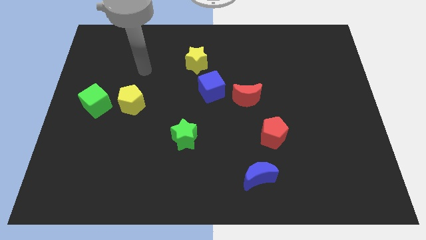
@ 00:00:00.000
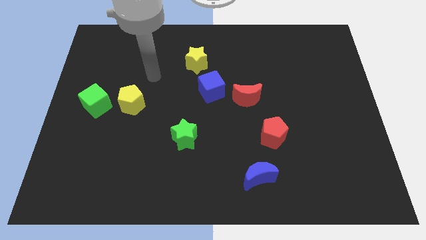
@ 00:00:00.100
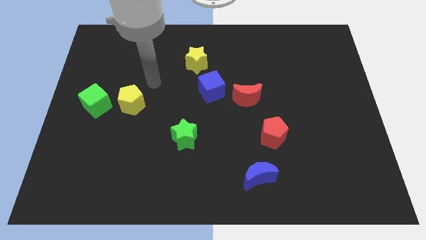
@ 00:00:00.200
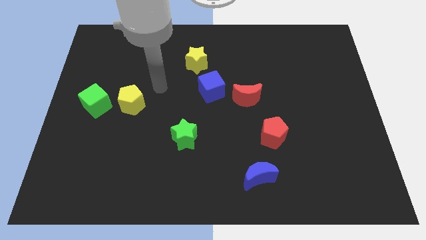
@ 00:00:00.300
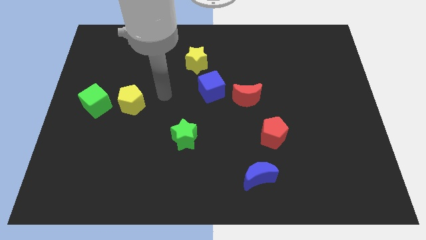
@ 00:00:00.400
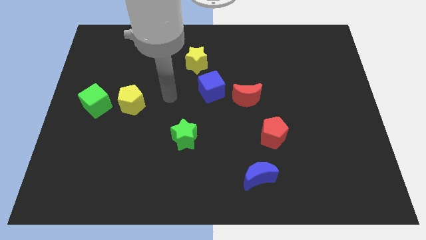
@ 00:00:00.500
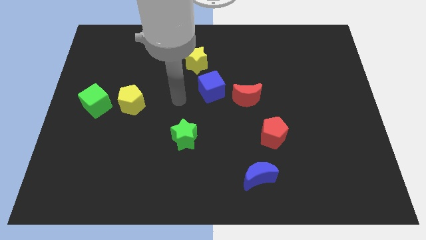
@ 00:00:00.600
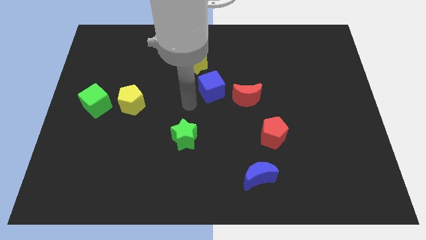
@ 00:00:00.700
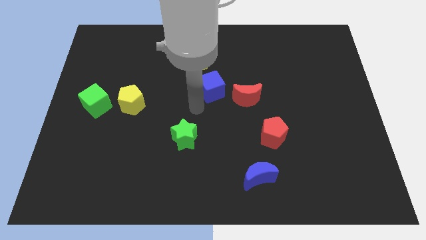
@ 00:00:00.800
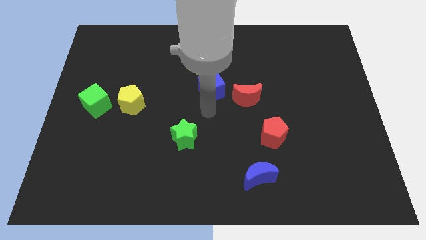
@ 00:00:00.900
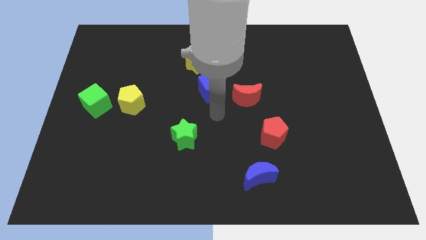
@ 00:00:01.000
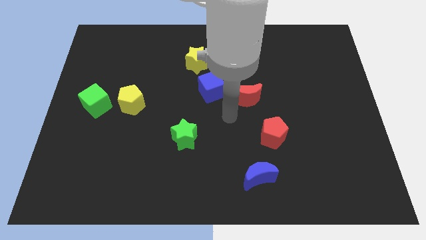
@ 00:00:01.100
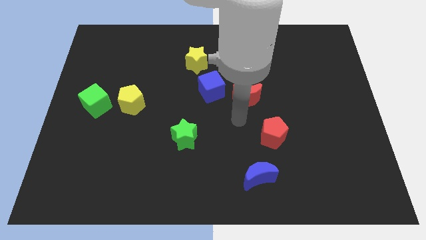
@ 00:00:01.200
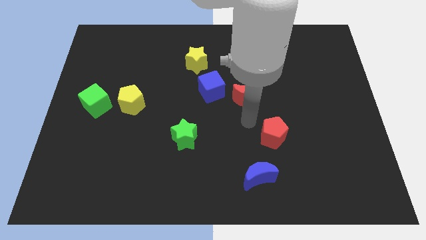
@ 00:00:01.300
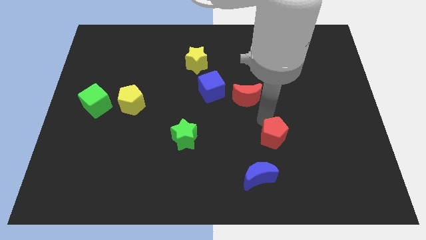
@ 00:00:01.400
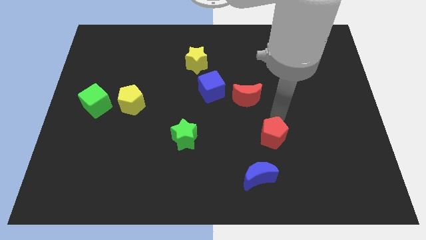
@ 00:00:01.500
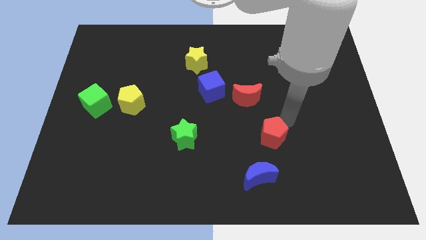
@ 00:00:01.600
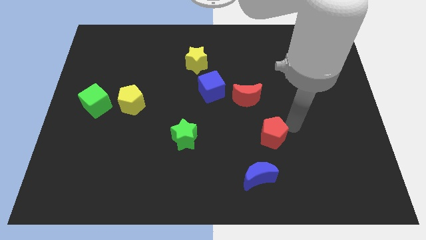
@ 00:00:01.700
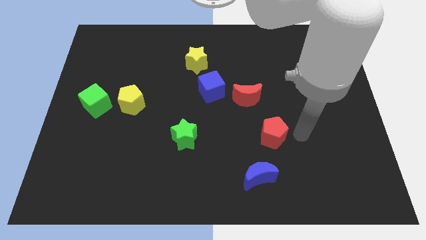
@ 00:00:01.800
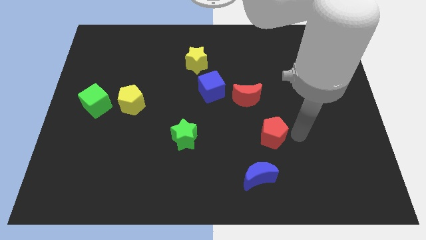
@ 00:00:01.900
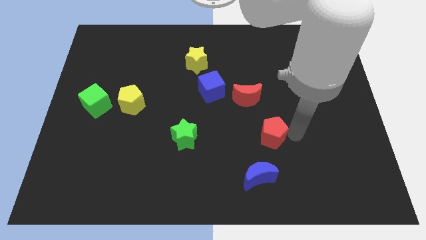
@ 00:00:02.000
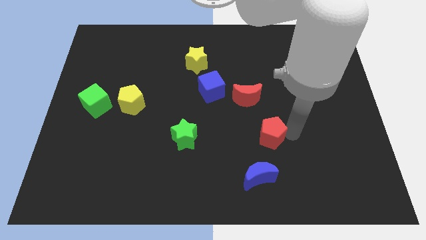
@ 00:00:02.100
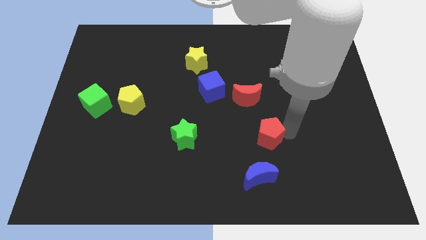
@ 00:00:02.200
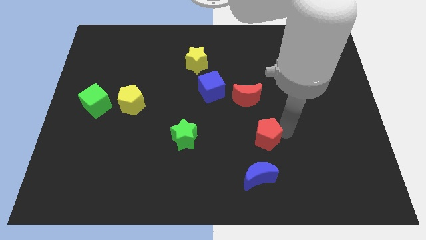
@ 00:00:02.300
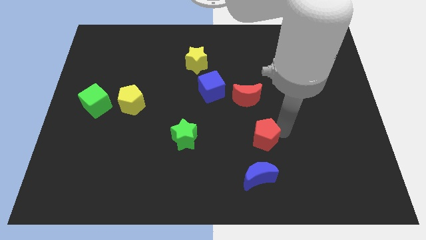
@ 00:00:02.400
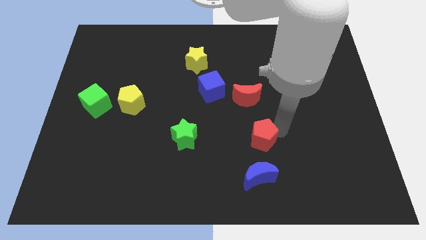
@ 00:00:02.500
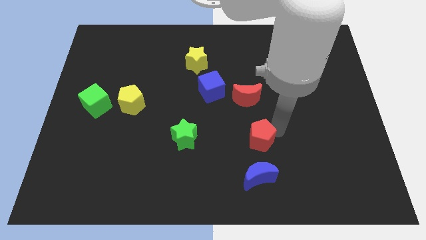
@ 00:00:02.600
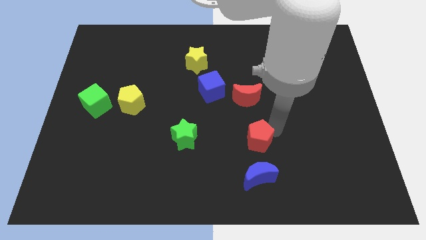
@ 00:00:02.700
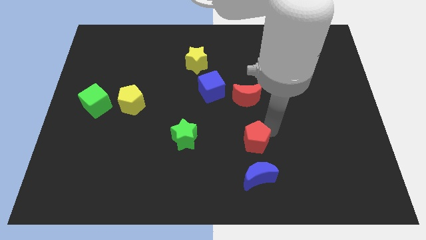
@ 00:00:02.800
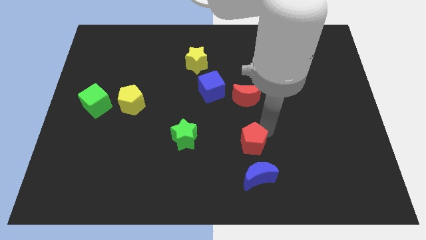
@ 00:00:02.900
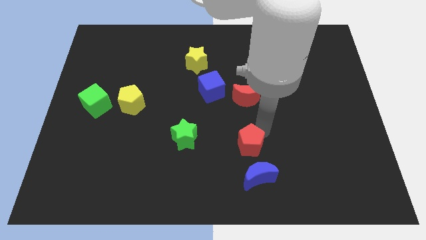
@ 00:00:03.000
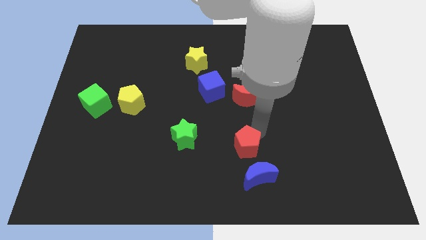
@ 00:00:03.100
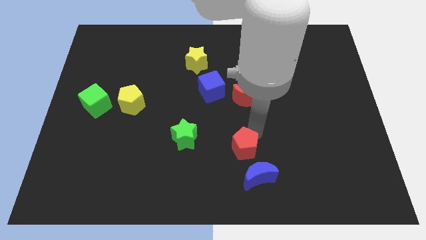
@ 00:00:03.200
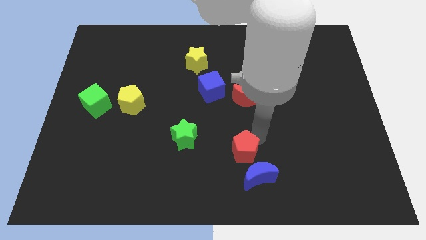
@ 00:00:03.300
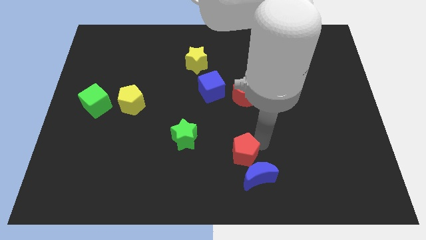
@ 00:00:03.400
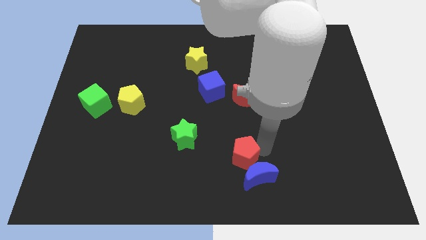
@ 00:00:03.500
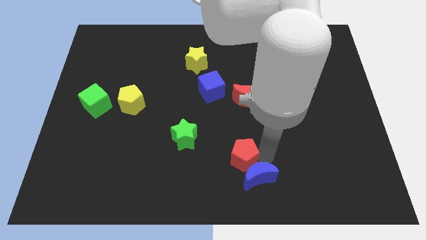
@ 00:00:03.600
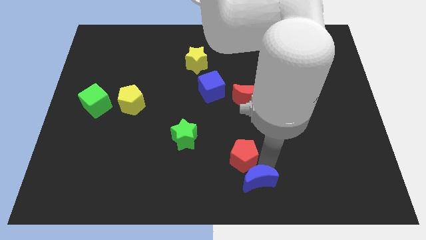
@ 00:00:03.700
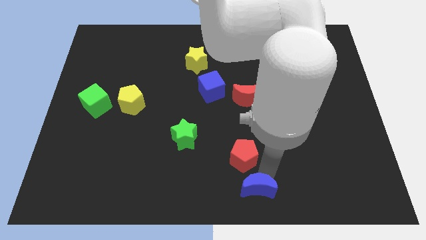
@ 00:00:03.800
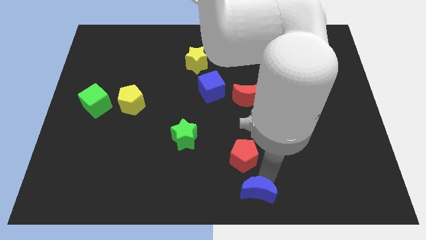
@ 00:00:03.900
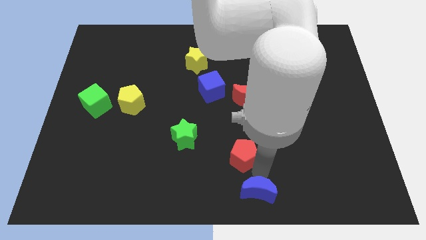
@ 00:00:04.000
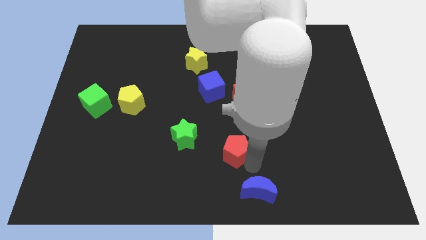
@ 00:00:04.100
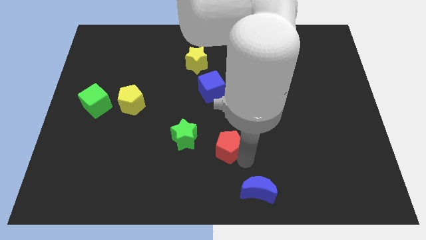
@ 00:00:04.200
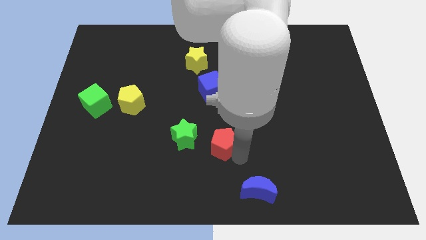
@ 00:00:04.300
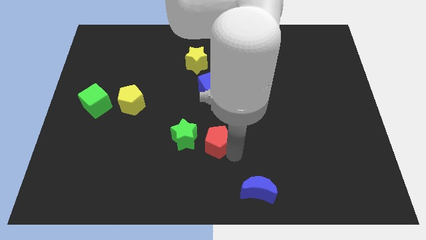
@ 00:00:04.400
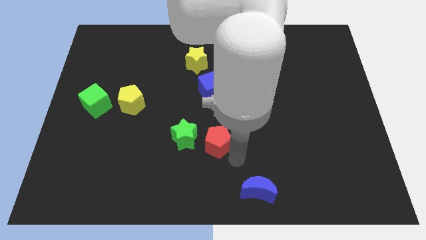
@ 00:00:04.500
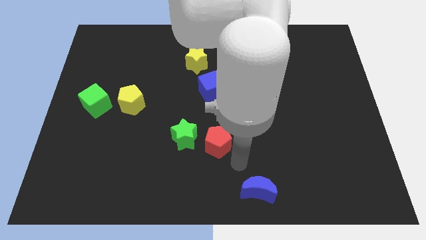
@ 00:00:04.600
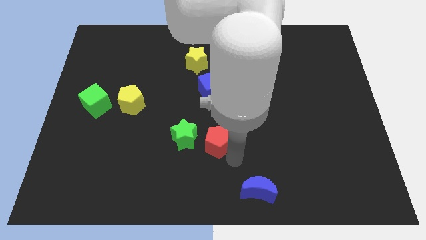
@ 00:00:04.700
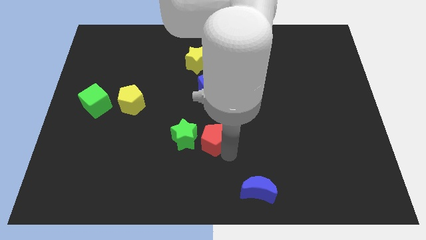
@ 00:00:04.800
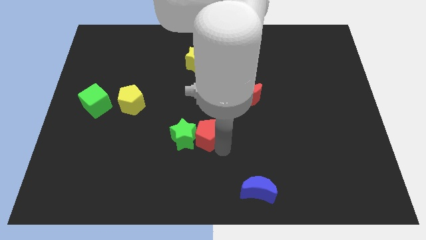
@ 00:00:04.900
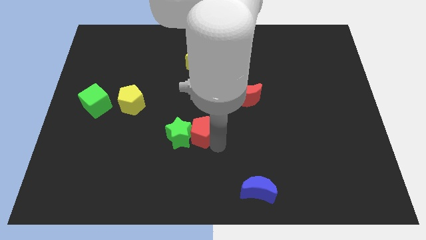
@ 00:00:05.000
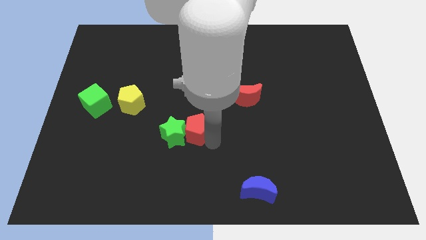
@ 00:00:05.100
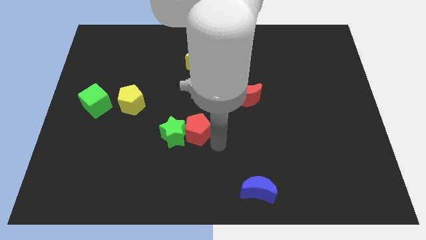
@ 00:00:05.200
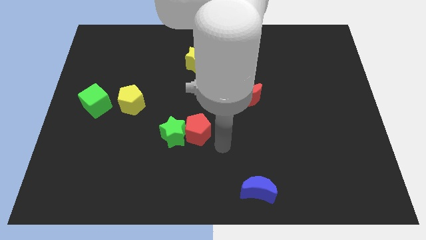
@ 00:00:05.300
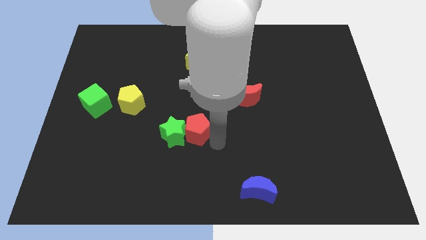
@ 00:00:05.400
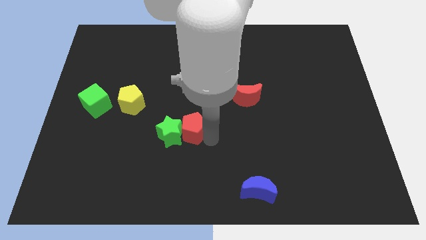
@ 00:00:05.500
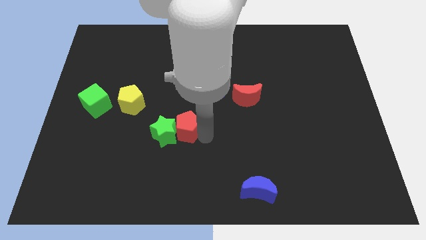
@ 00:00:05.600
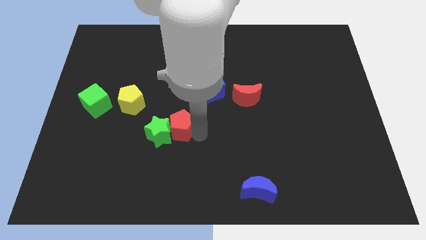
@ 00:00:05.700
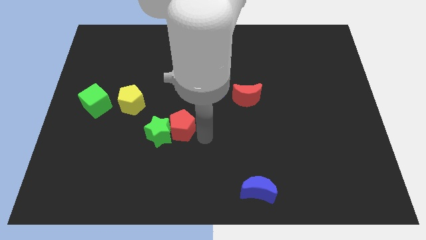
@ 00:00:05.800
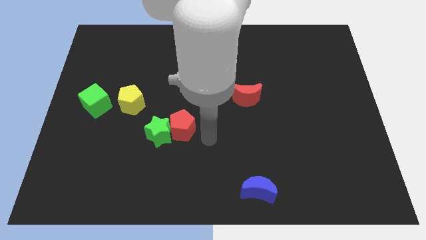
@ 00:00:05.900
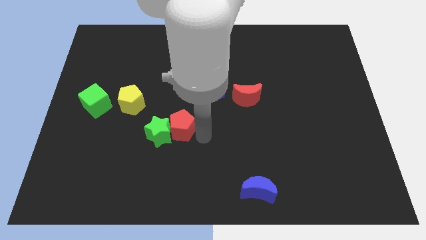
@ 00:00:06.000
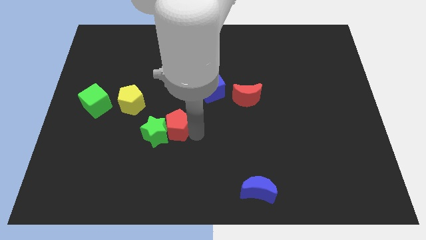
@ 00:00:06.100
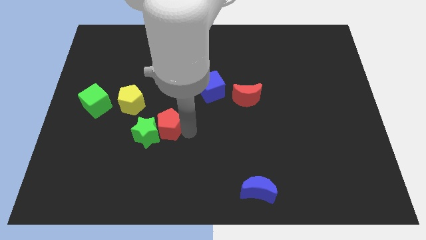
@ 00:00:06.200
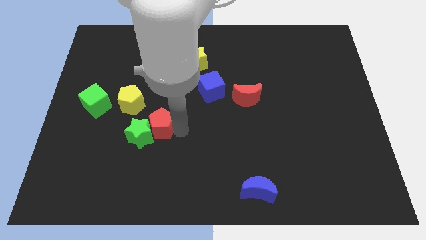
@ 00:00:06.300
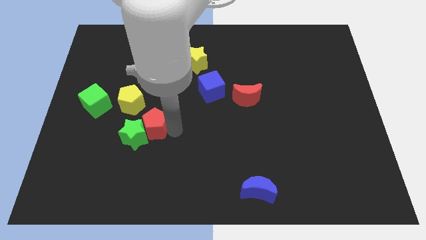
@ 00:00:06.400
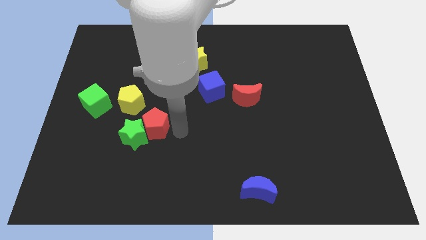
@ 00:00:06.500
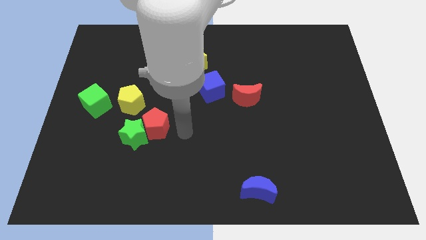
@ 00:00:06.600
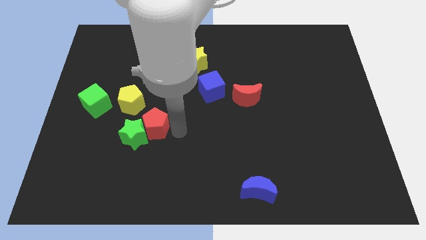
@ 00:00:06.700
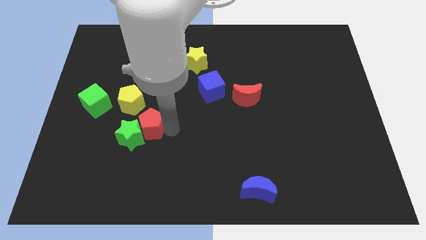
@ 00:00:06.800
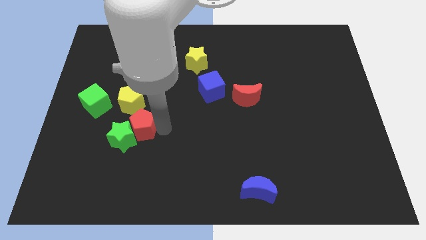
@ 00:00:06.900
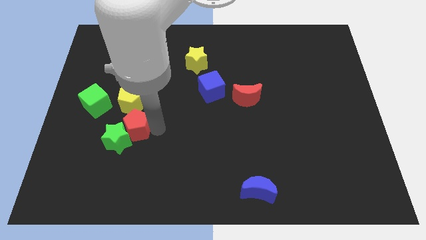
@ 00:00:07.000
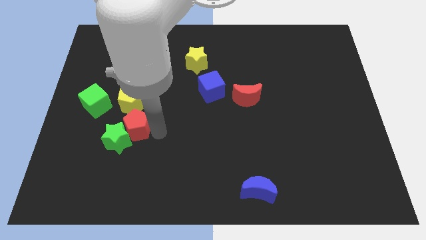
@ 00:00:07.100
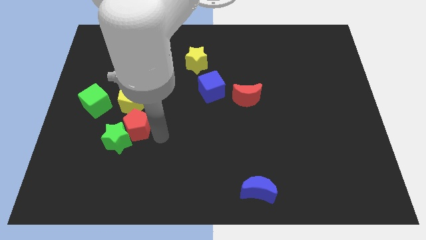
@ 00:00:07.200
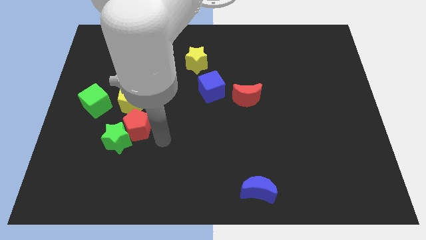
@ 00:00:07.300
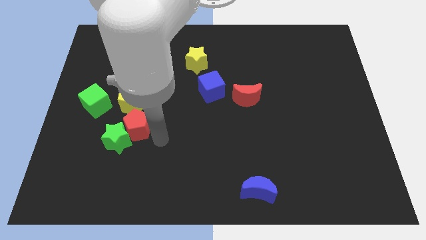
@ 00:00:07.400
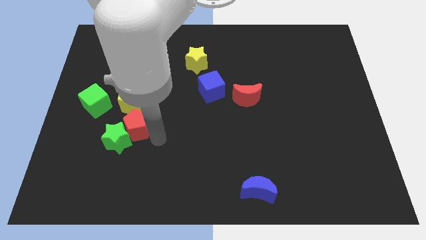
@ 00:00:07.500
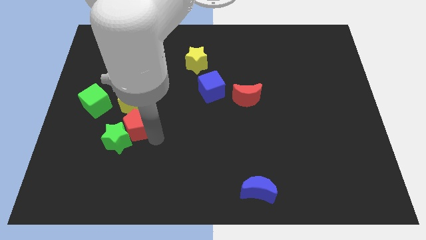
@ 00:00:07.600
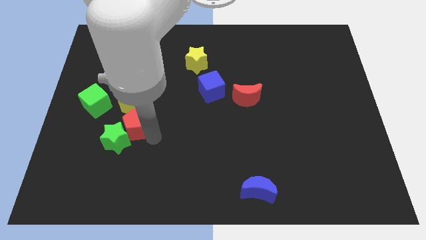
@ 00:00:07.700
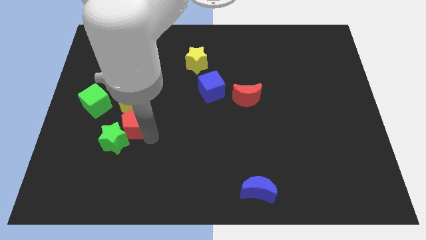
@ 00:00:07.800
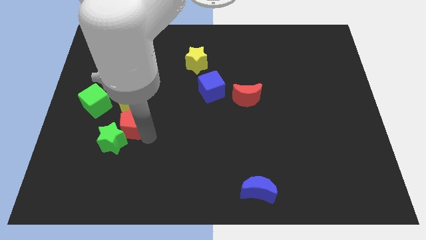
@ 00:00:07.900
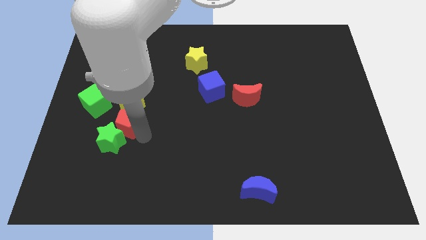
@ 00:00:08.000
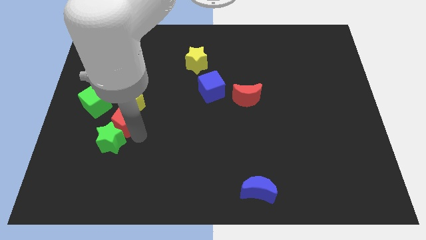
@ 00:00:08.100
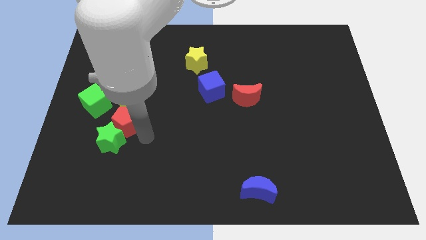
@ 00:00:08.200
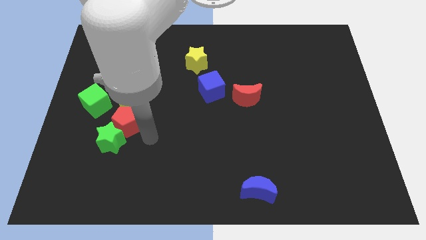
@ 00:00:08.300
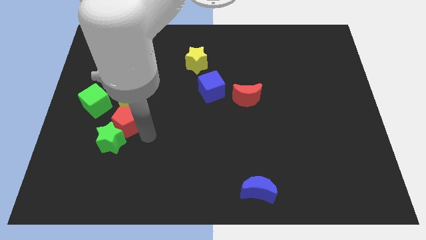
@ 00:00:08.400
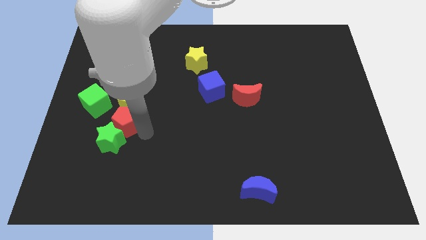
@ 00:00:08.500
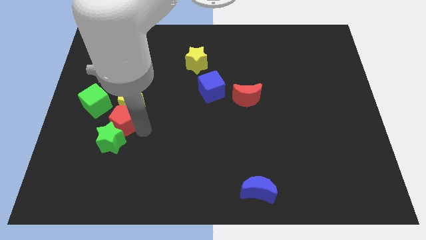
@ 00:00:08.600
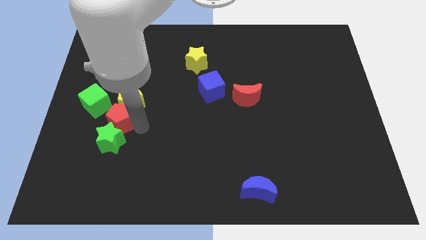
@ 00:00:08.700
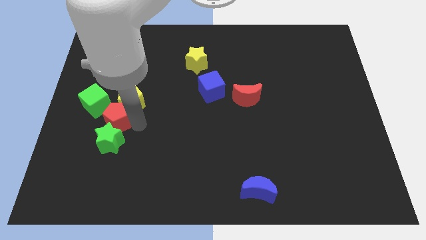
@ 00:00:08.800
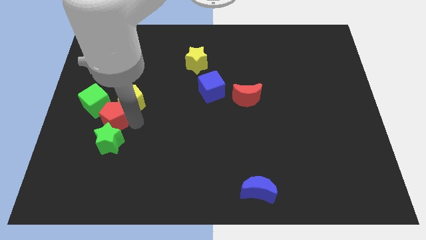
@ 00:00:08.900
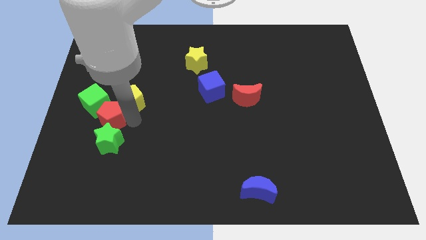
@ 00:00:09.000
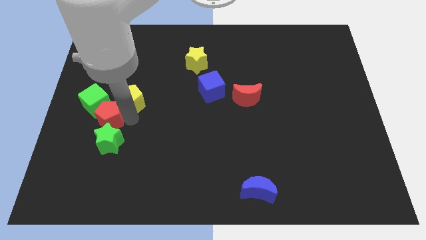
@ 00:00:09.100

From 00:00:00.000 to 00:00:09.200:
slide the red pentagon next to the green cube
